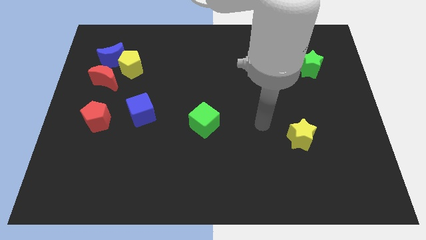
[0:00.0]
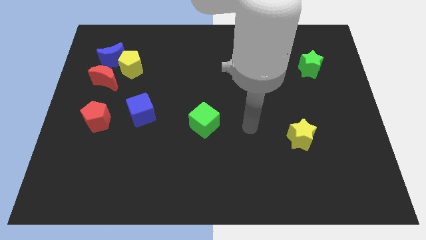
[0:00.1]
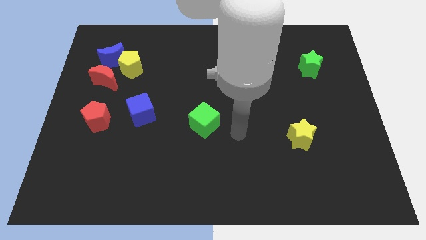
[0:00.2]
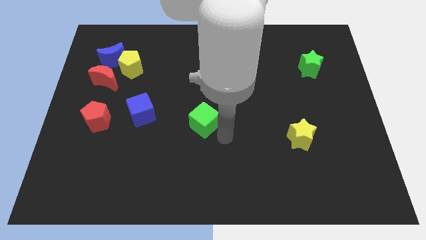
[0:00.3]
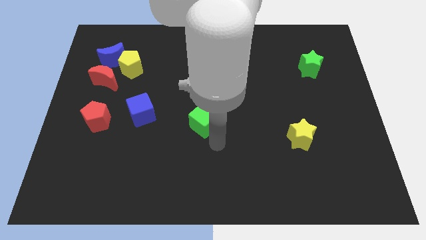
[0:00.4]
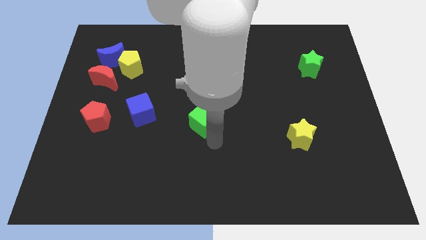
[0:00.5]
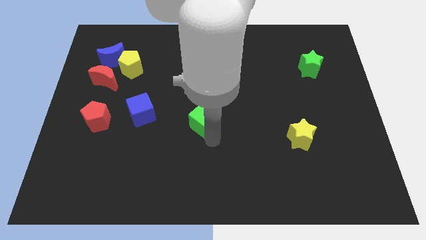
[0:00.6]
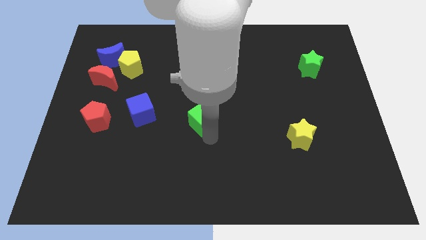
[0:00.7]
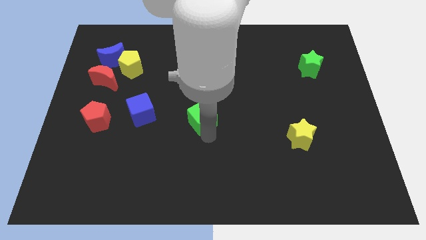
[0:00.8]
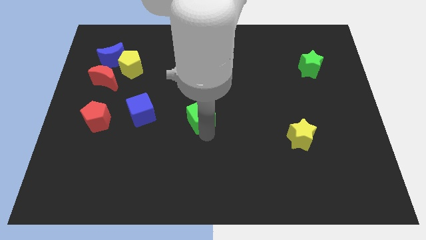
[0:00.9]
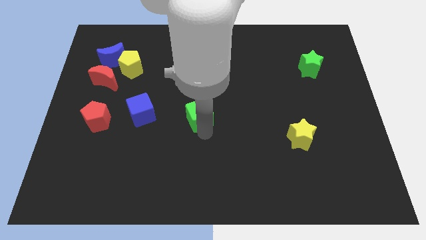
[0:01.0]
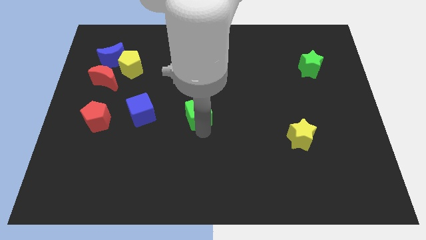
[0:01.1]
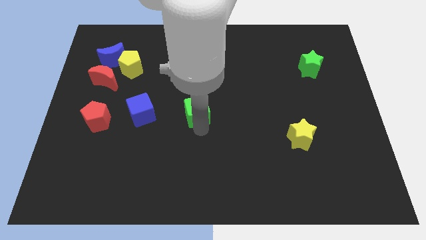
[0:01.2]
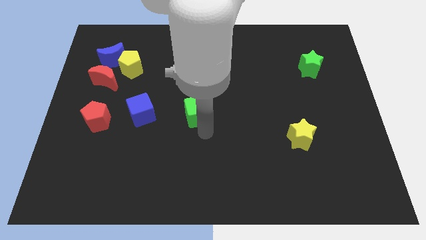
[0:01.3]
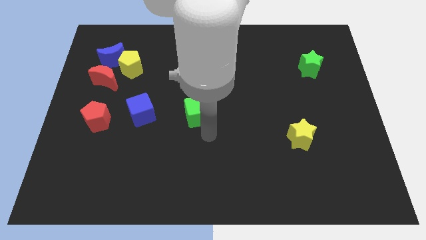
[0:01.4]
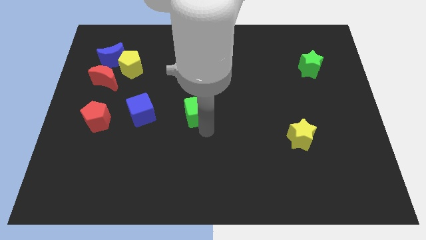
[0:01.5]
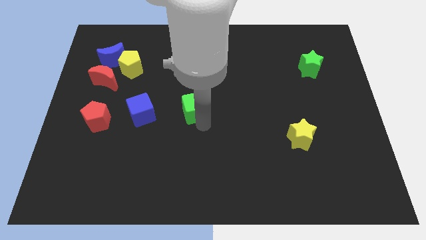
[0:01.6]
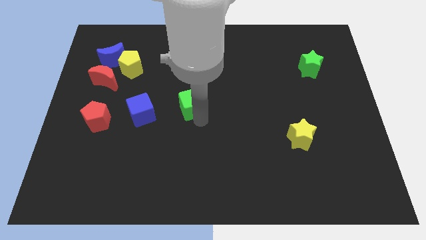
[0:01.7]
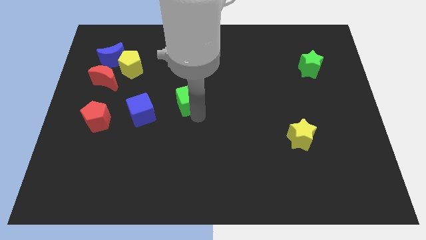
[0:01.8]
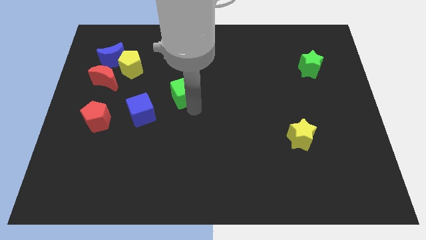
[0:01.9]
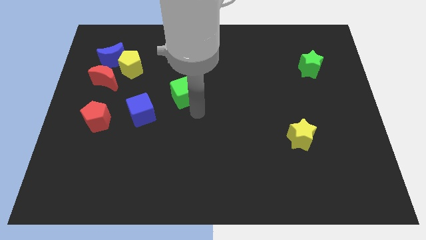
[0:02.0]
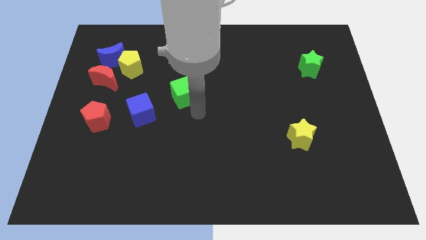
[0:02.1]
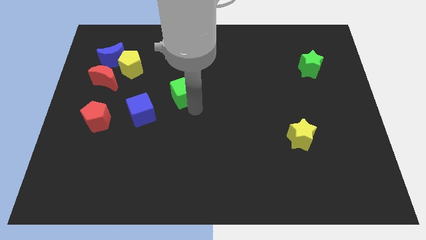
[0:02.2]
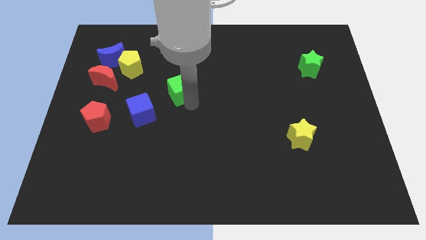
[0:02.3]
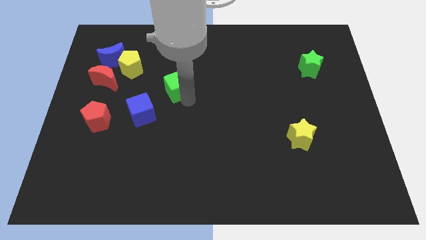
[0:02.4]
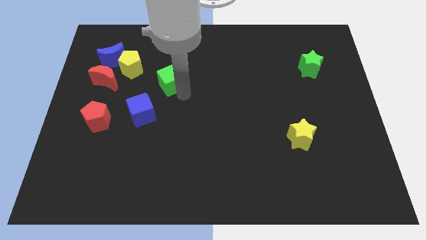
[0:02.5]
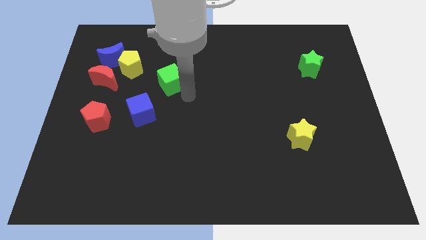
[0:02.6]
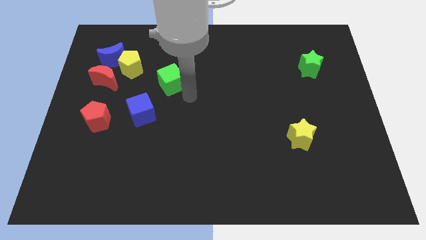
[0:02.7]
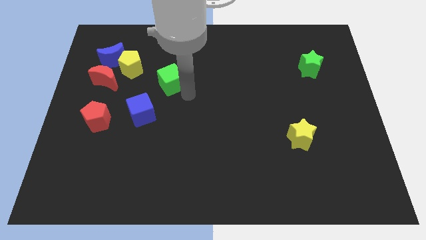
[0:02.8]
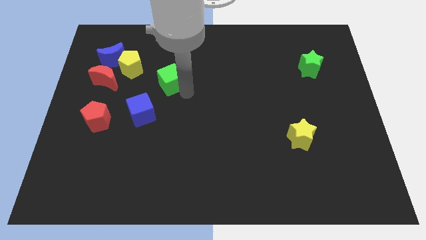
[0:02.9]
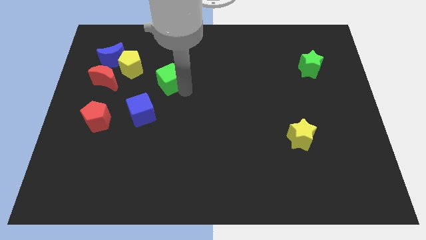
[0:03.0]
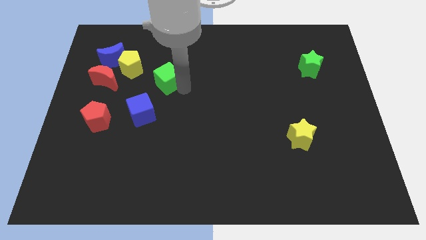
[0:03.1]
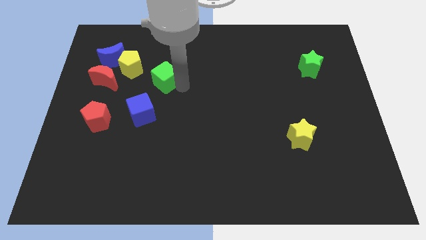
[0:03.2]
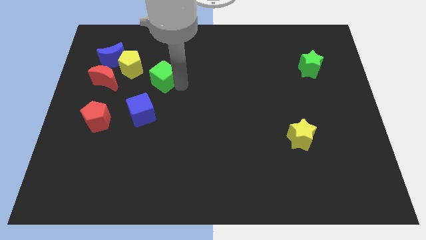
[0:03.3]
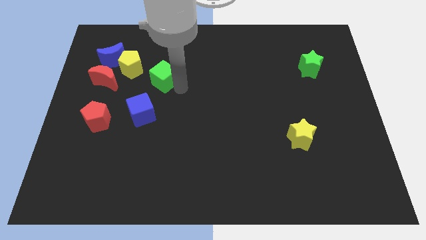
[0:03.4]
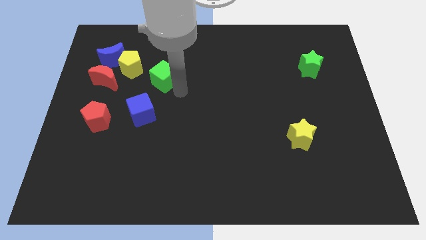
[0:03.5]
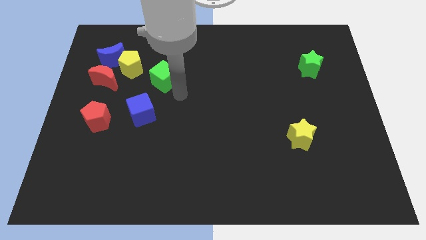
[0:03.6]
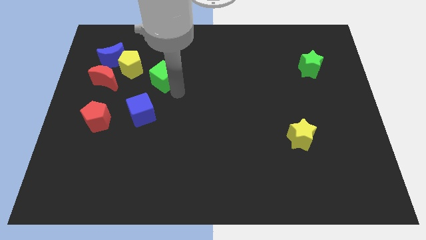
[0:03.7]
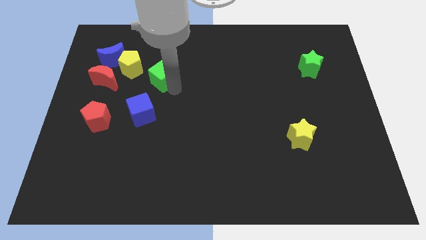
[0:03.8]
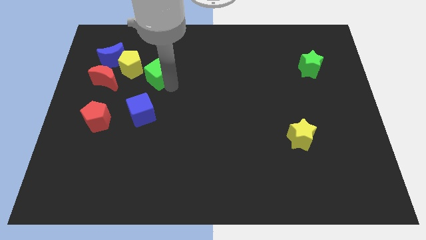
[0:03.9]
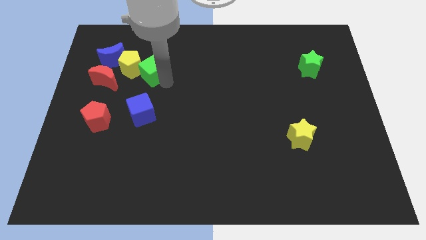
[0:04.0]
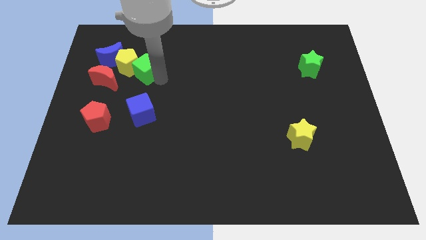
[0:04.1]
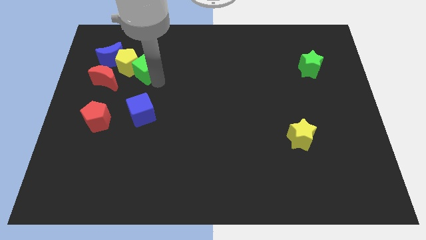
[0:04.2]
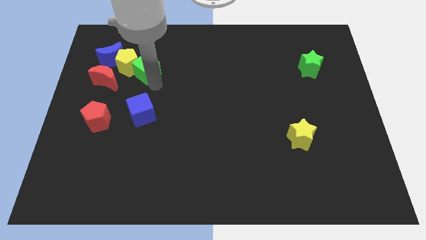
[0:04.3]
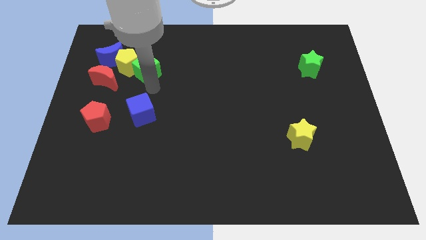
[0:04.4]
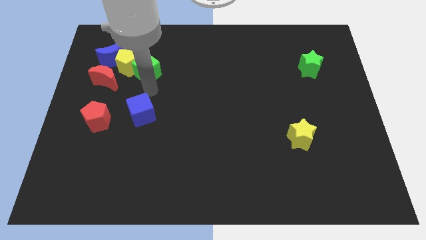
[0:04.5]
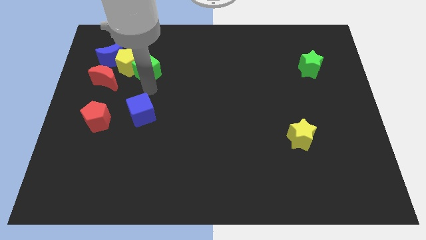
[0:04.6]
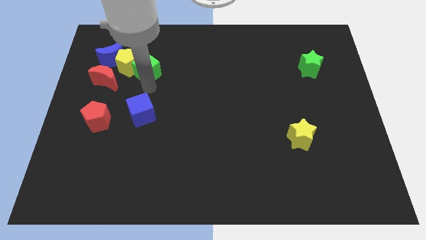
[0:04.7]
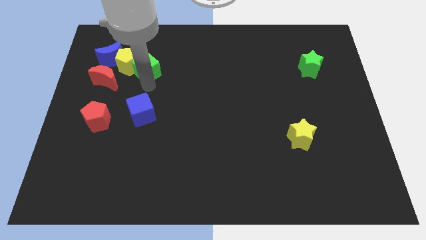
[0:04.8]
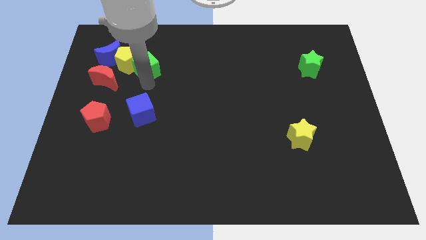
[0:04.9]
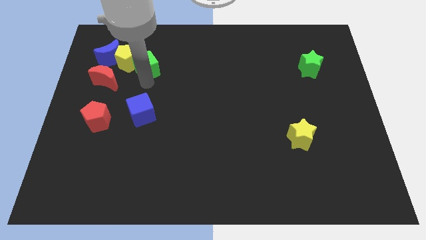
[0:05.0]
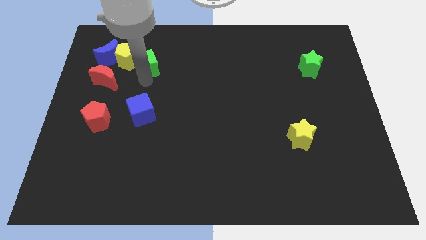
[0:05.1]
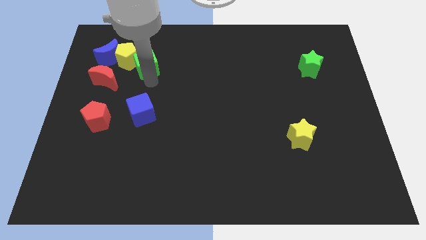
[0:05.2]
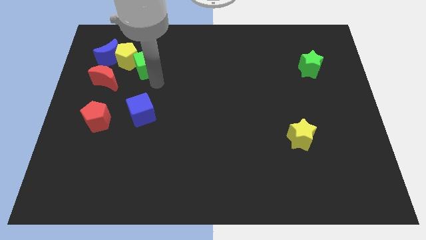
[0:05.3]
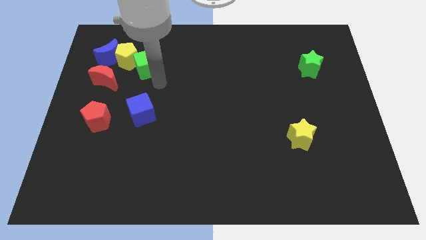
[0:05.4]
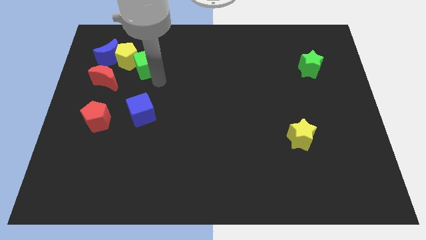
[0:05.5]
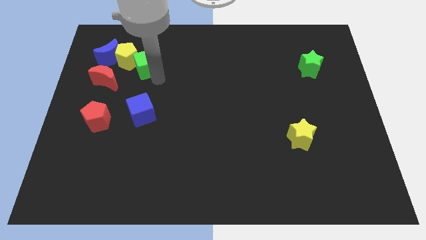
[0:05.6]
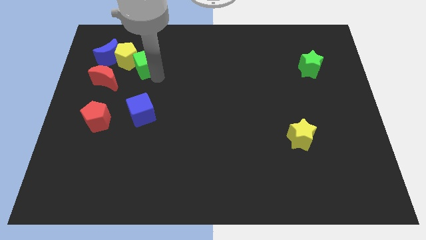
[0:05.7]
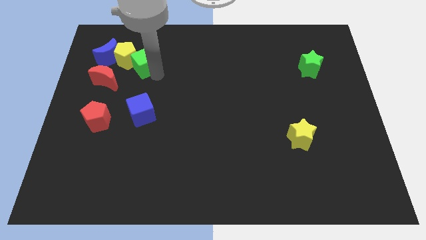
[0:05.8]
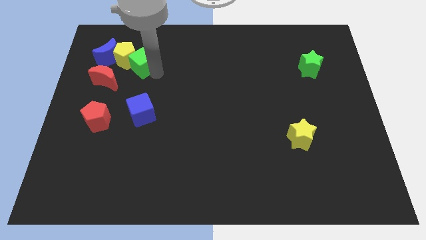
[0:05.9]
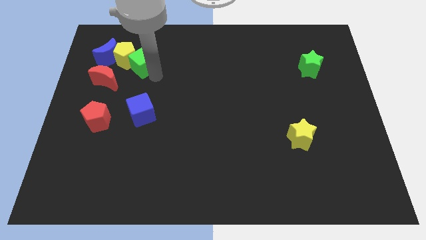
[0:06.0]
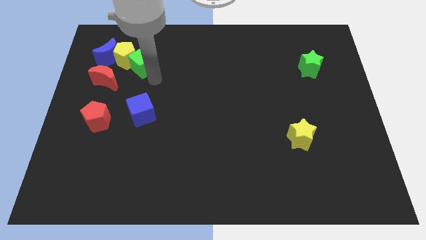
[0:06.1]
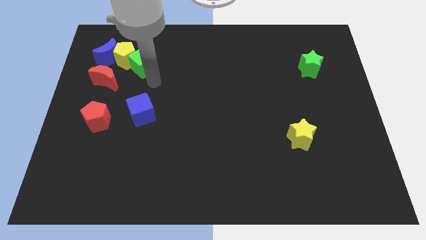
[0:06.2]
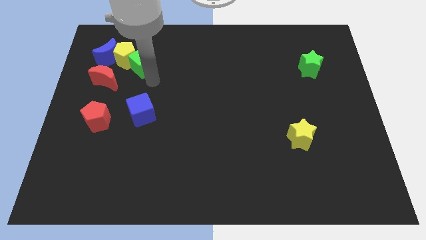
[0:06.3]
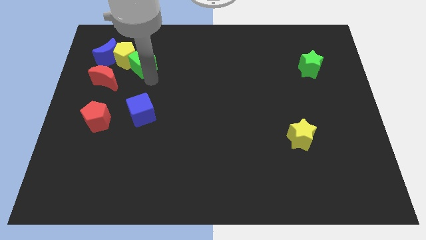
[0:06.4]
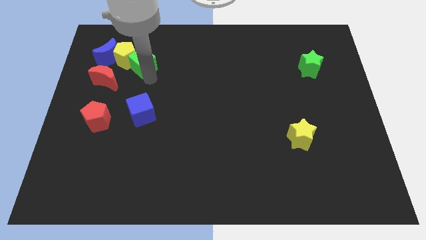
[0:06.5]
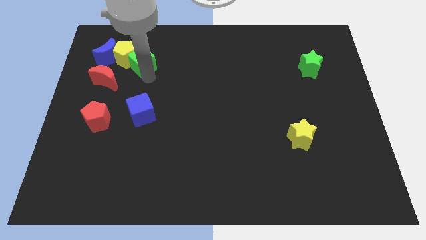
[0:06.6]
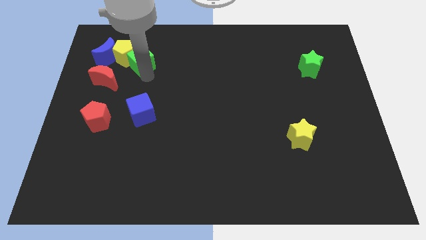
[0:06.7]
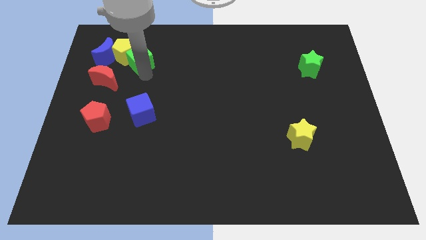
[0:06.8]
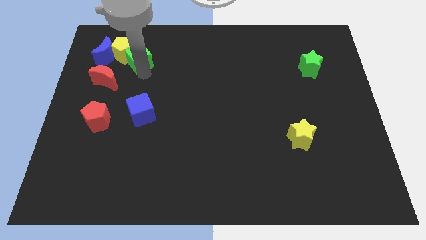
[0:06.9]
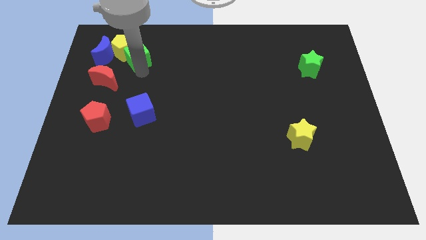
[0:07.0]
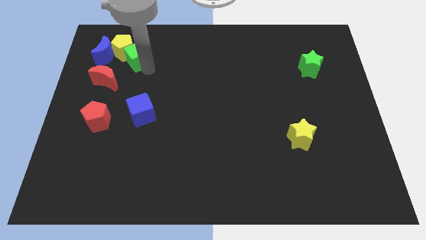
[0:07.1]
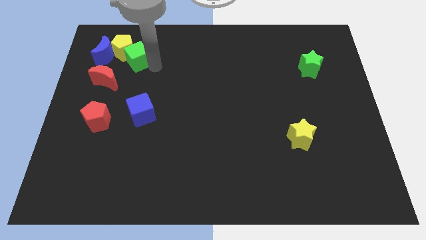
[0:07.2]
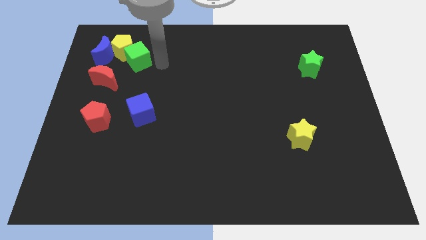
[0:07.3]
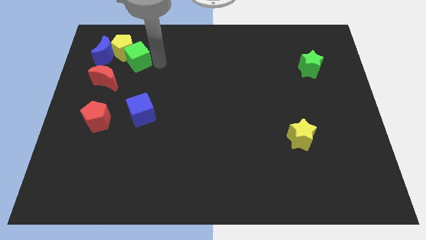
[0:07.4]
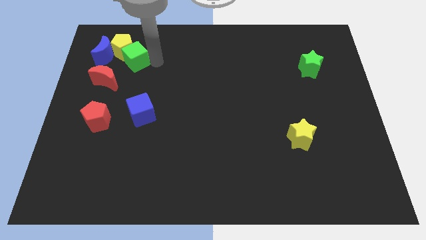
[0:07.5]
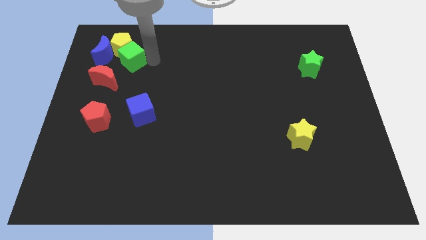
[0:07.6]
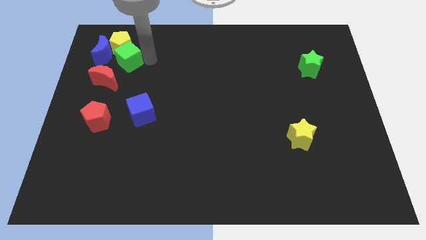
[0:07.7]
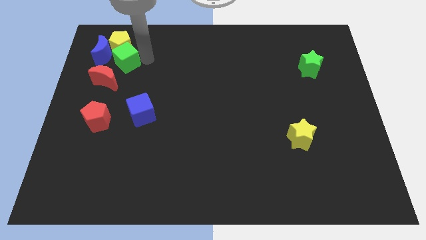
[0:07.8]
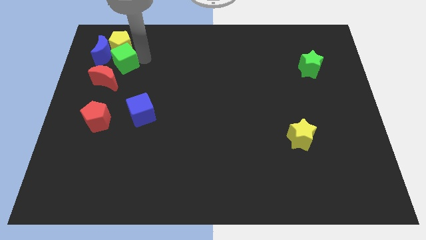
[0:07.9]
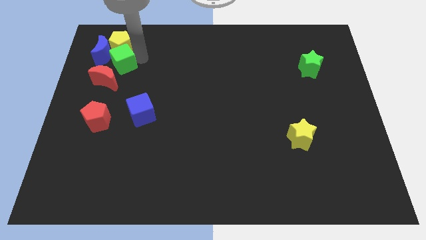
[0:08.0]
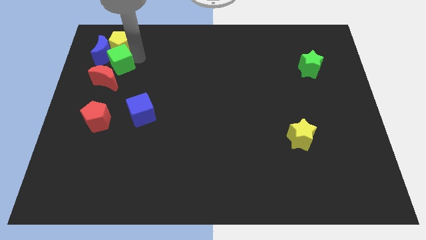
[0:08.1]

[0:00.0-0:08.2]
push the green cube towards the blue moon
